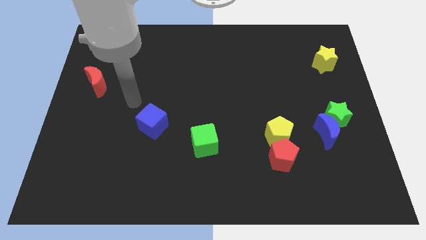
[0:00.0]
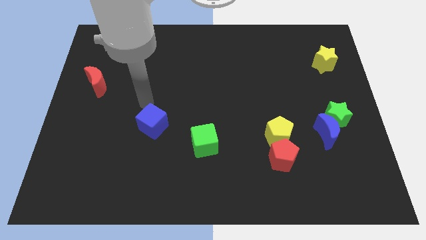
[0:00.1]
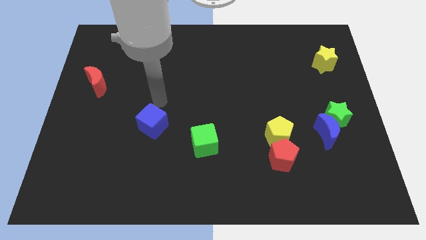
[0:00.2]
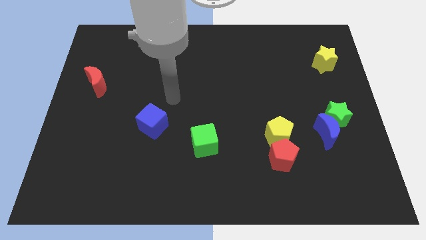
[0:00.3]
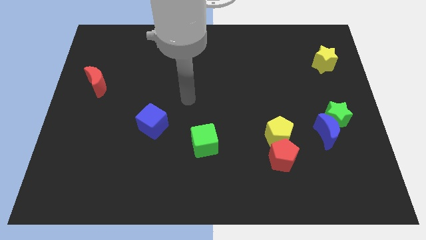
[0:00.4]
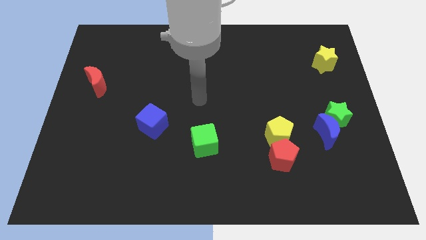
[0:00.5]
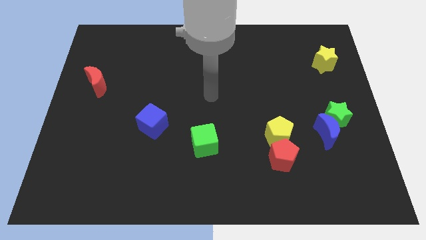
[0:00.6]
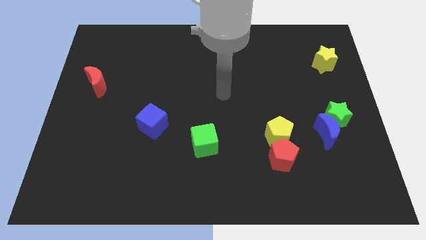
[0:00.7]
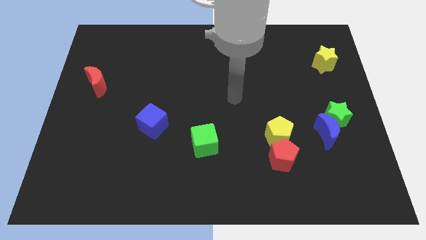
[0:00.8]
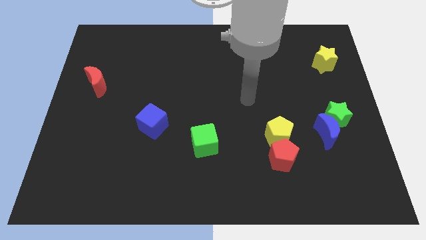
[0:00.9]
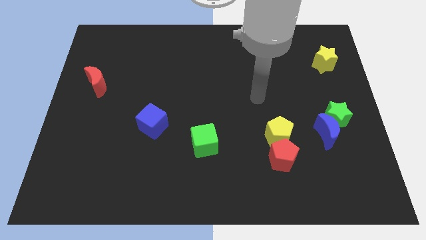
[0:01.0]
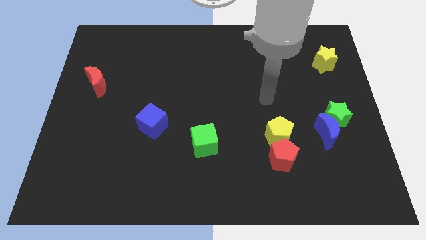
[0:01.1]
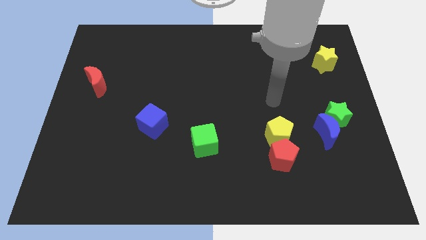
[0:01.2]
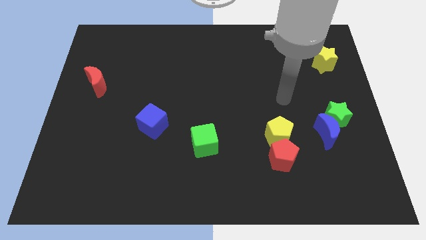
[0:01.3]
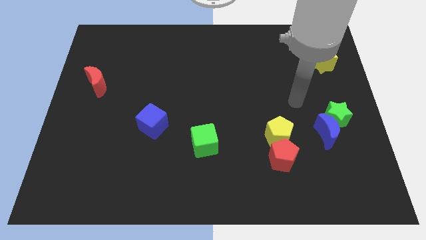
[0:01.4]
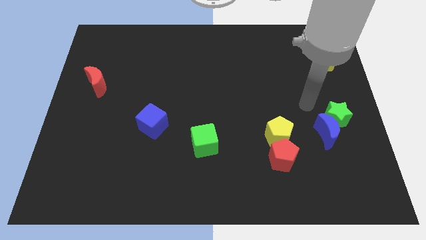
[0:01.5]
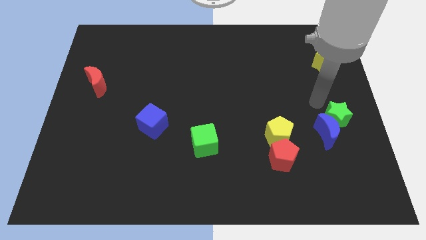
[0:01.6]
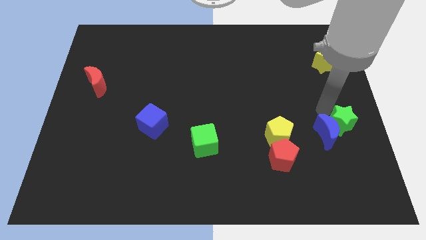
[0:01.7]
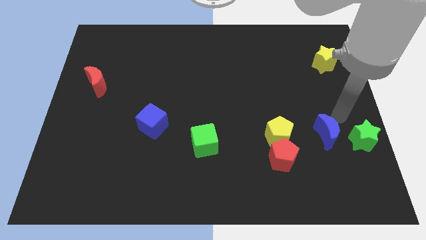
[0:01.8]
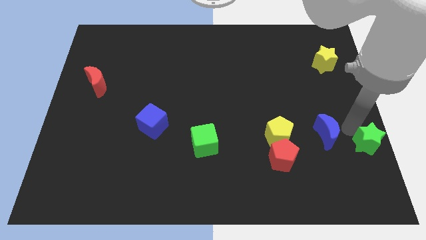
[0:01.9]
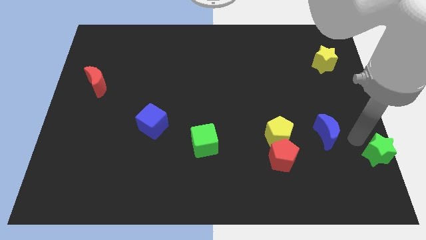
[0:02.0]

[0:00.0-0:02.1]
separate the blue moon from the green star

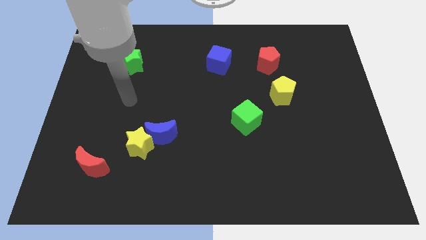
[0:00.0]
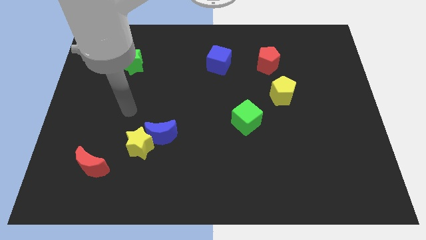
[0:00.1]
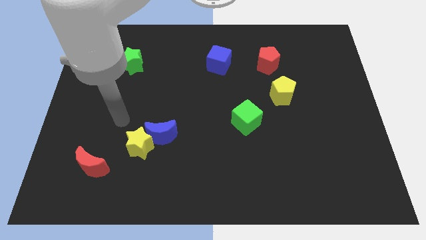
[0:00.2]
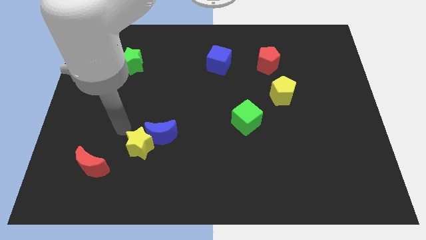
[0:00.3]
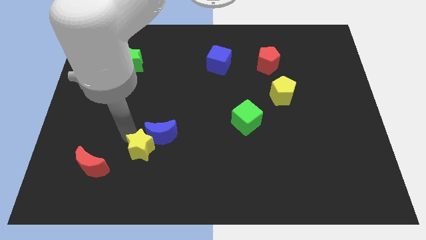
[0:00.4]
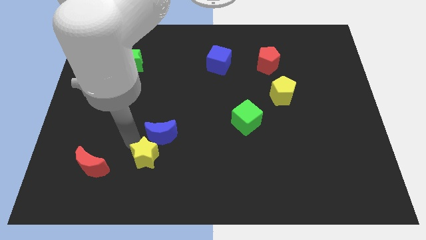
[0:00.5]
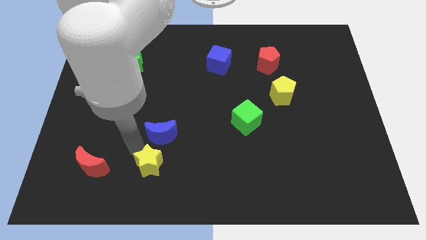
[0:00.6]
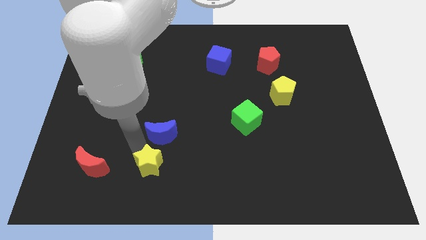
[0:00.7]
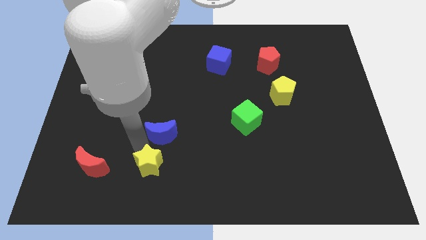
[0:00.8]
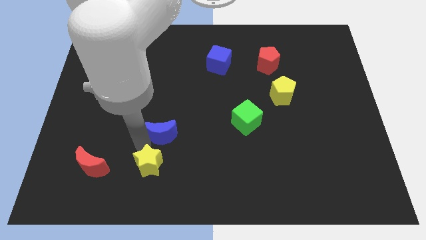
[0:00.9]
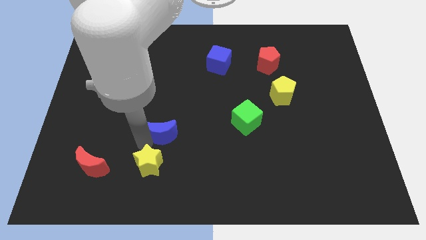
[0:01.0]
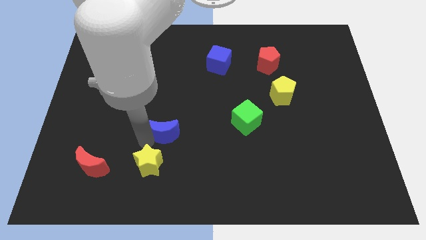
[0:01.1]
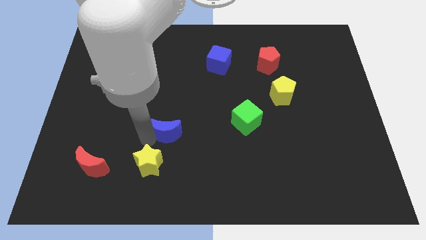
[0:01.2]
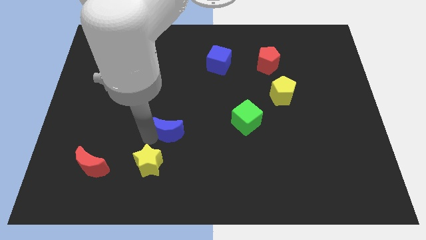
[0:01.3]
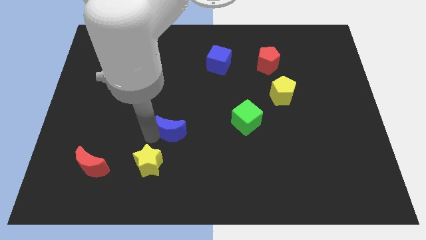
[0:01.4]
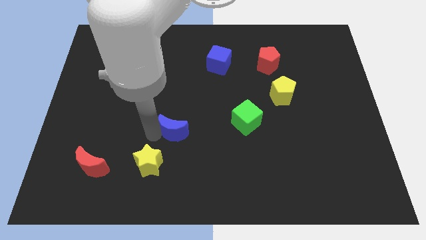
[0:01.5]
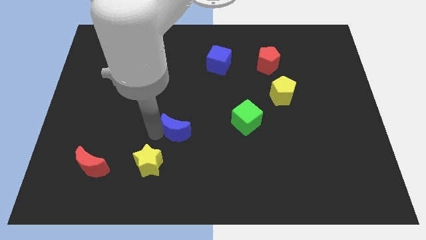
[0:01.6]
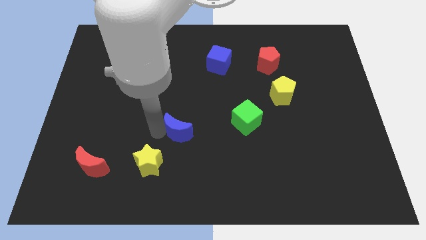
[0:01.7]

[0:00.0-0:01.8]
pull the blue moon apart from the yellow star

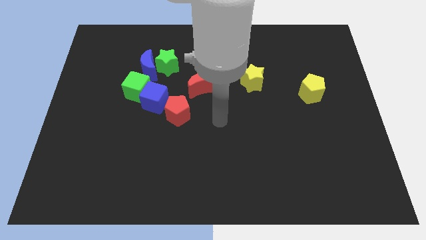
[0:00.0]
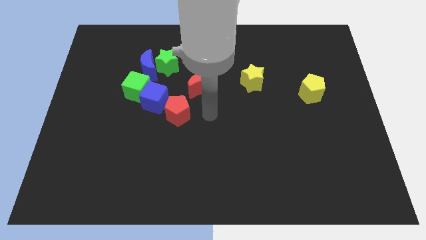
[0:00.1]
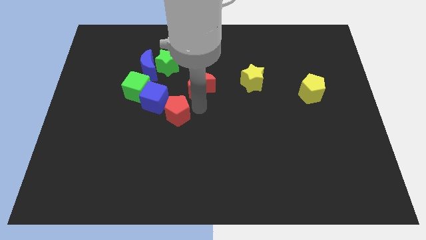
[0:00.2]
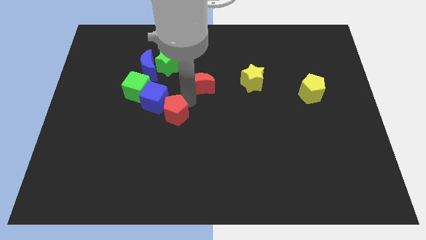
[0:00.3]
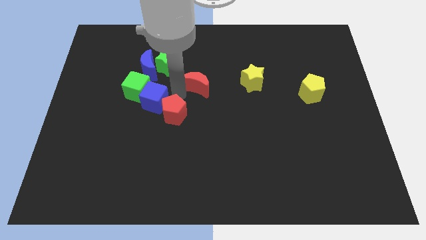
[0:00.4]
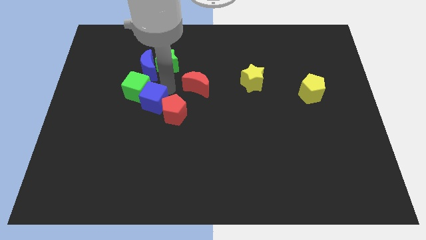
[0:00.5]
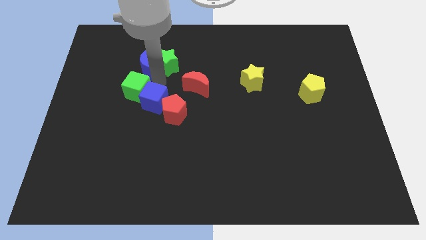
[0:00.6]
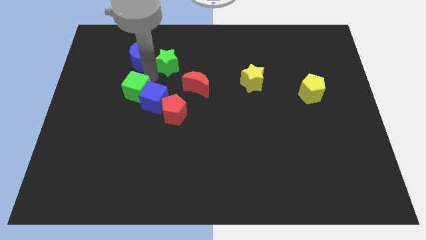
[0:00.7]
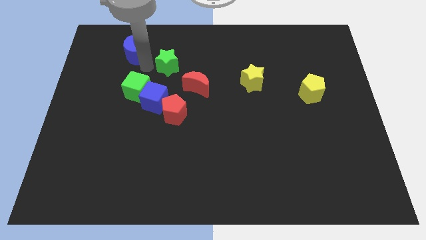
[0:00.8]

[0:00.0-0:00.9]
move the green star away from the blue moon

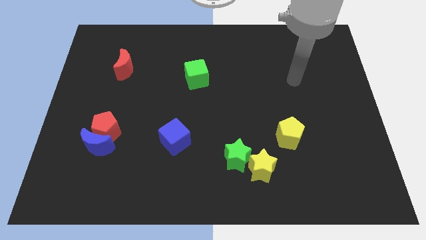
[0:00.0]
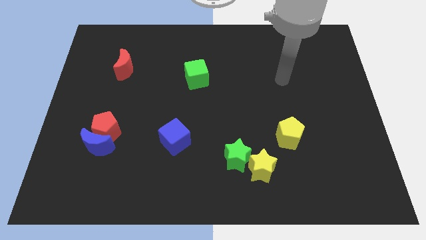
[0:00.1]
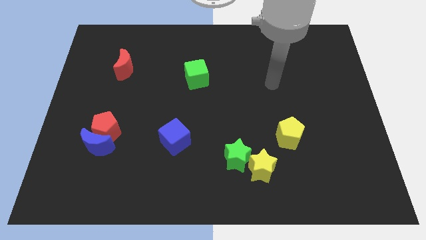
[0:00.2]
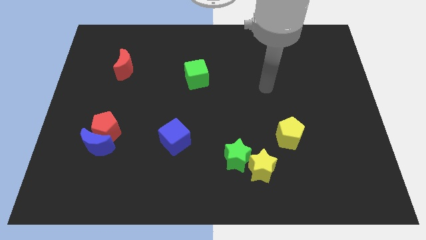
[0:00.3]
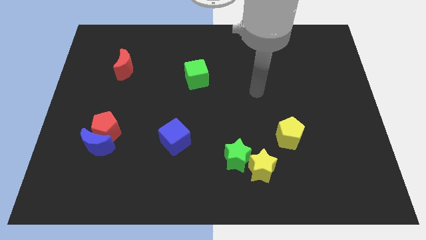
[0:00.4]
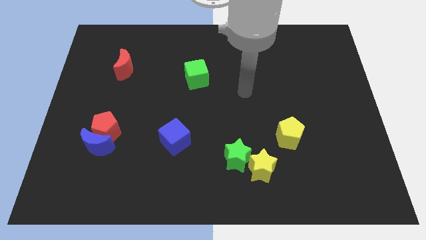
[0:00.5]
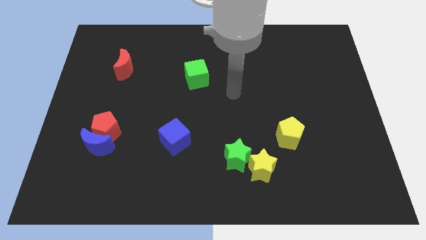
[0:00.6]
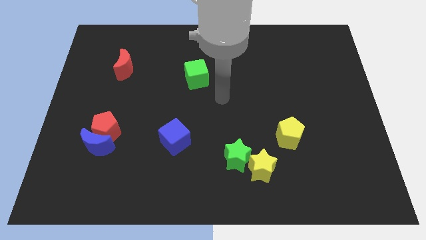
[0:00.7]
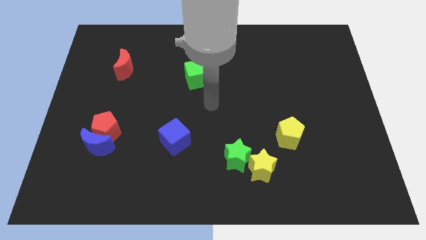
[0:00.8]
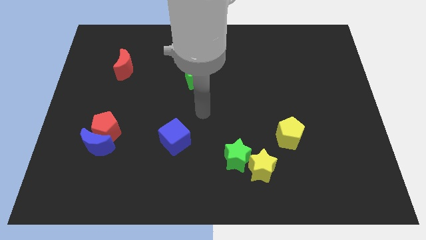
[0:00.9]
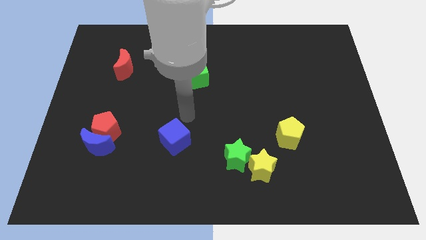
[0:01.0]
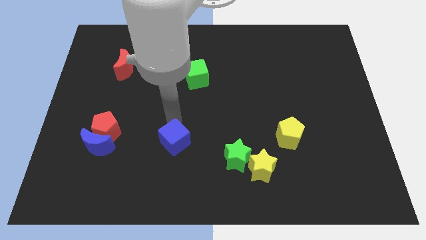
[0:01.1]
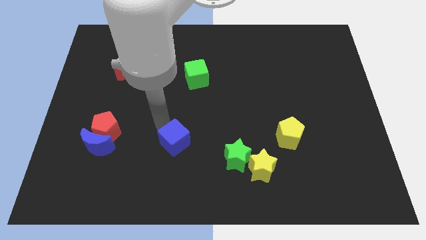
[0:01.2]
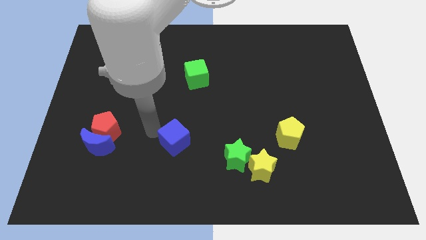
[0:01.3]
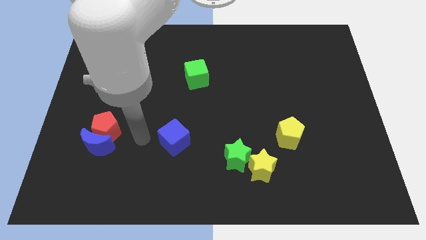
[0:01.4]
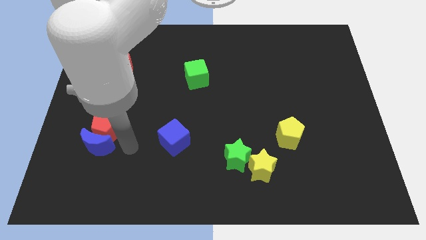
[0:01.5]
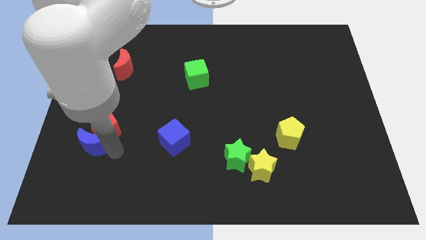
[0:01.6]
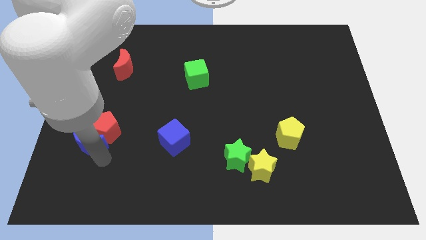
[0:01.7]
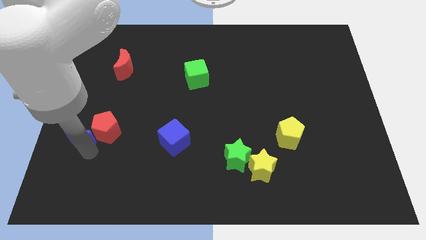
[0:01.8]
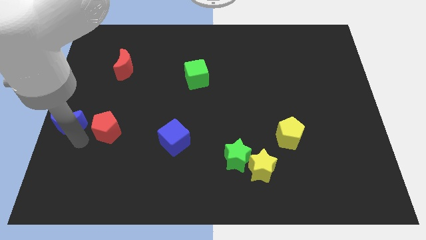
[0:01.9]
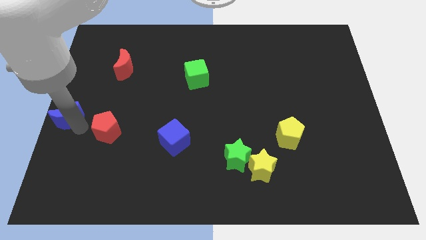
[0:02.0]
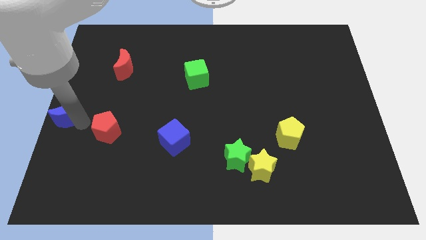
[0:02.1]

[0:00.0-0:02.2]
separate the red pentagon from the blue moon

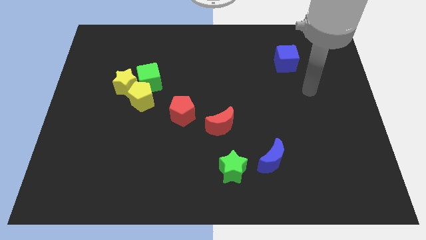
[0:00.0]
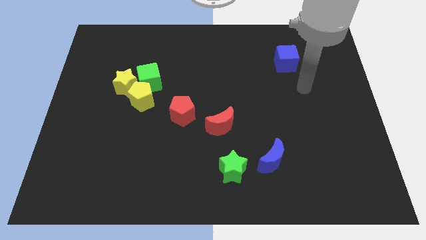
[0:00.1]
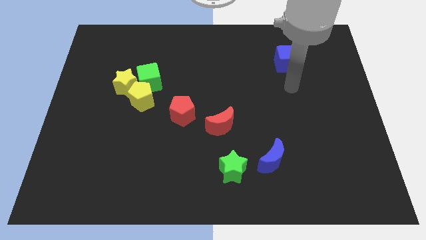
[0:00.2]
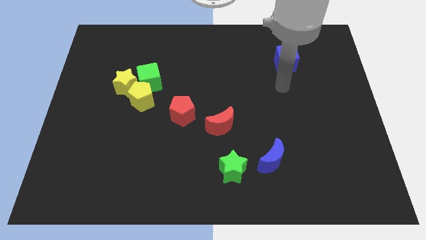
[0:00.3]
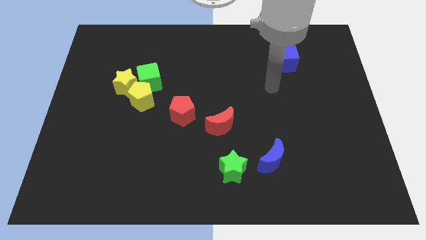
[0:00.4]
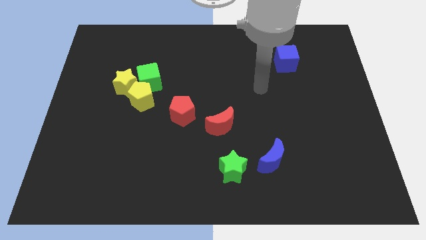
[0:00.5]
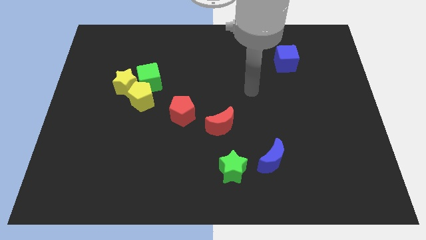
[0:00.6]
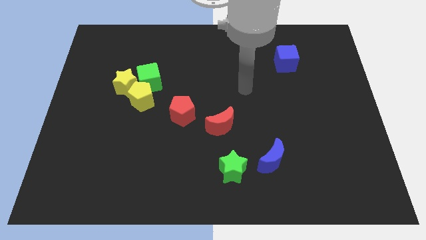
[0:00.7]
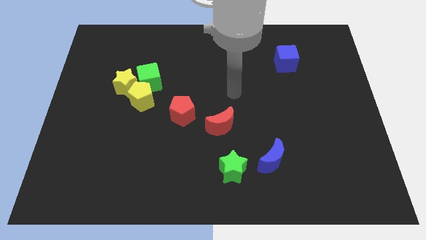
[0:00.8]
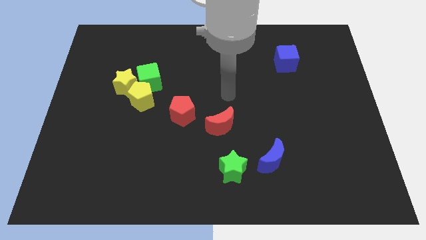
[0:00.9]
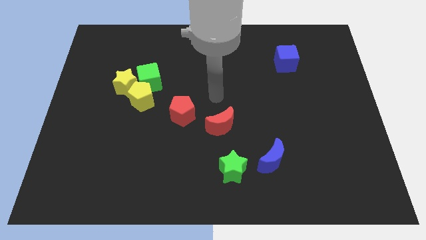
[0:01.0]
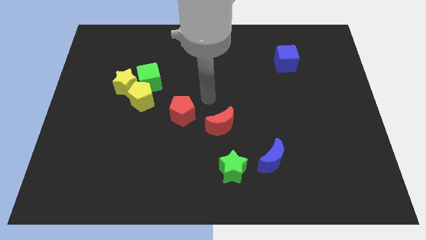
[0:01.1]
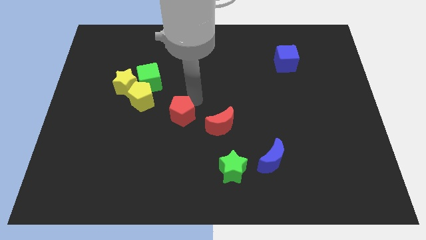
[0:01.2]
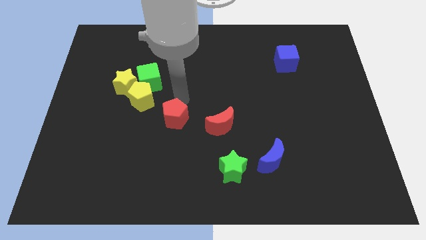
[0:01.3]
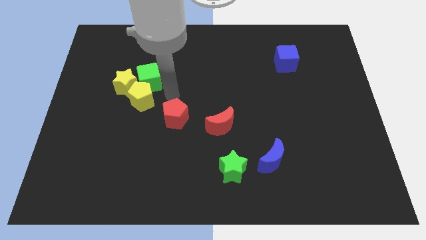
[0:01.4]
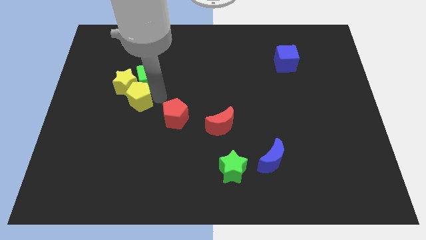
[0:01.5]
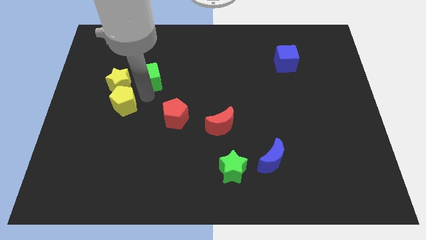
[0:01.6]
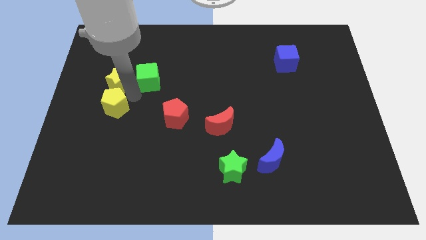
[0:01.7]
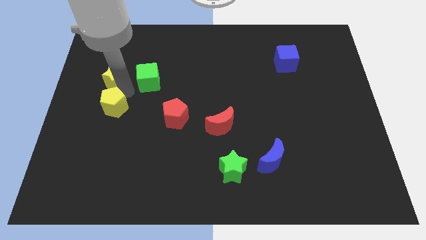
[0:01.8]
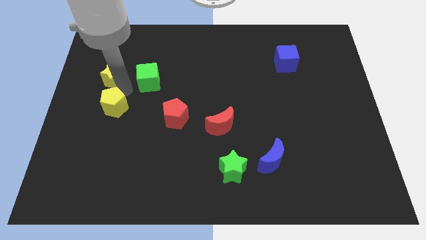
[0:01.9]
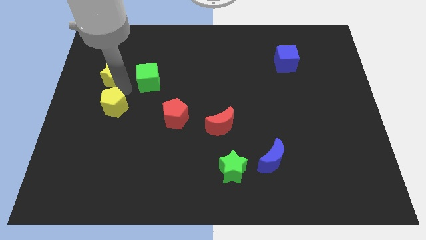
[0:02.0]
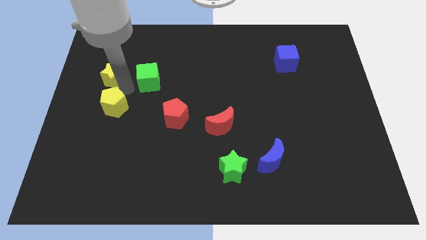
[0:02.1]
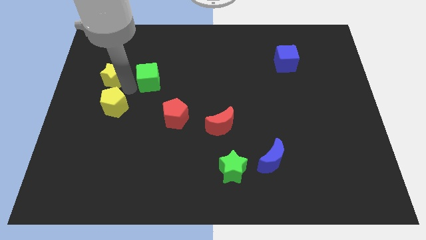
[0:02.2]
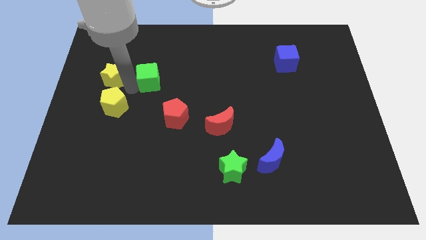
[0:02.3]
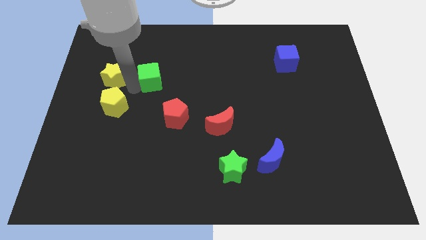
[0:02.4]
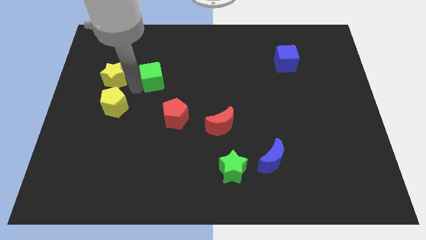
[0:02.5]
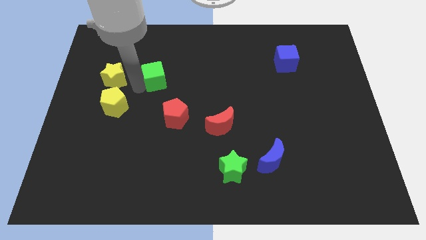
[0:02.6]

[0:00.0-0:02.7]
separate the green cube from the yellow star and yellow pentagon
